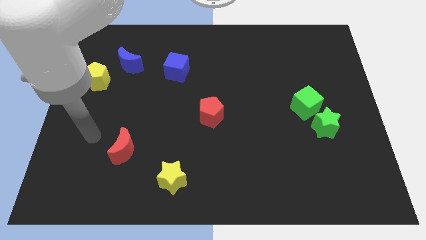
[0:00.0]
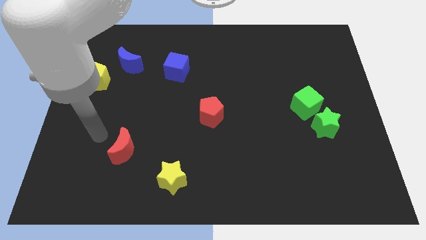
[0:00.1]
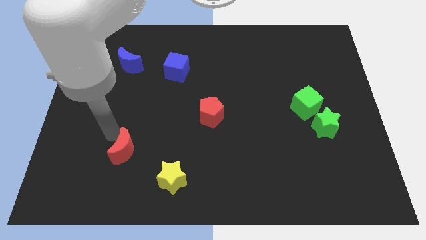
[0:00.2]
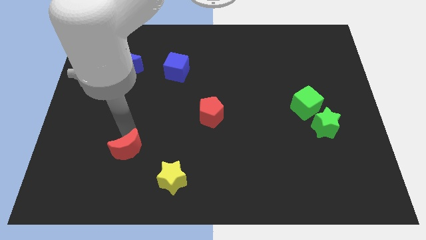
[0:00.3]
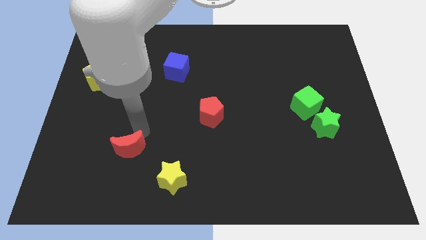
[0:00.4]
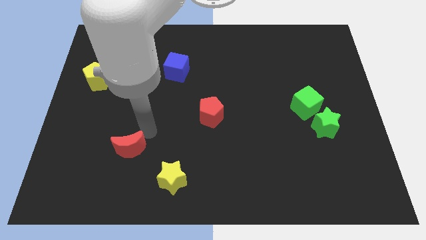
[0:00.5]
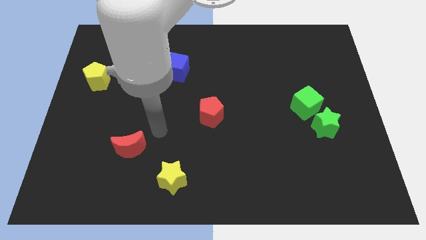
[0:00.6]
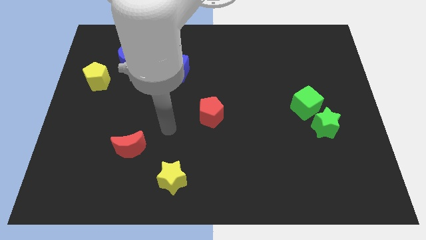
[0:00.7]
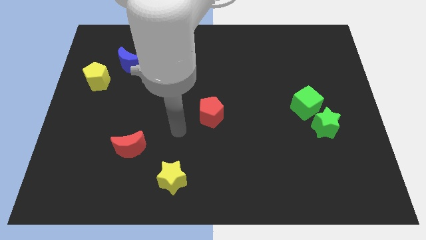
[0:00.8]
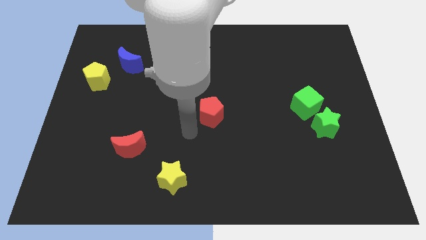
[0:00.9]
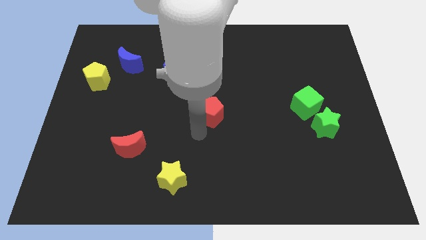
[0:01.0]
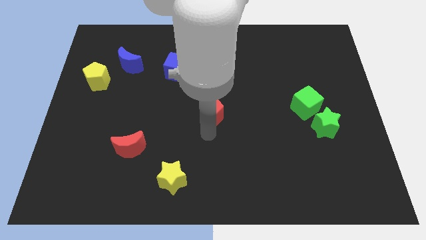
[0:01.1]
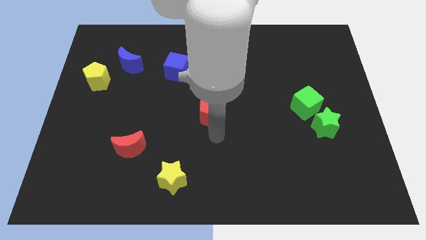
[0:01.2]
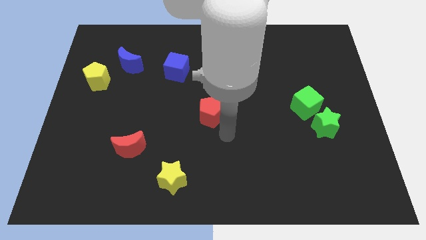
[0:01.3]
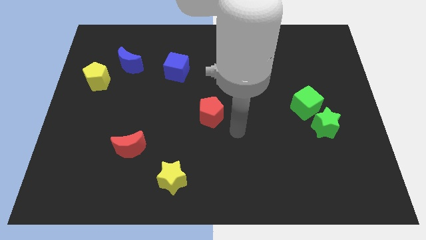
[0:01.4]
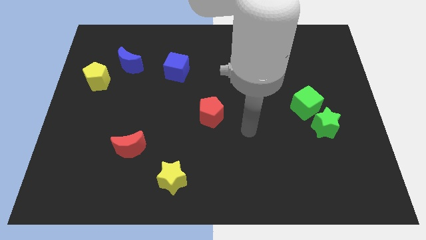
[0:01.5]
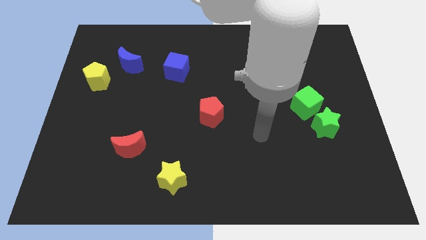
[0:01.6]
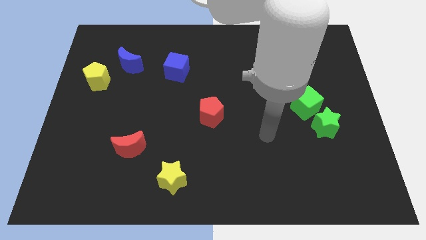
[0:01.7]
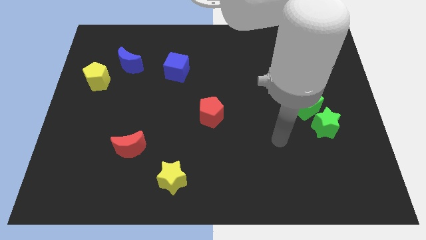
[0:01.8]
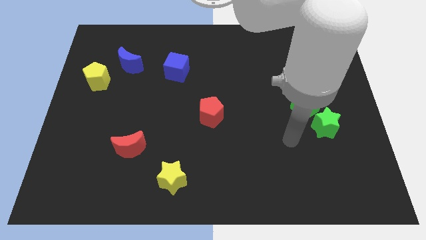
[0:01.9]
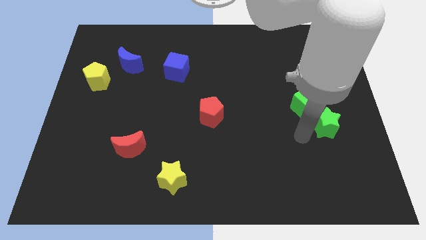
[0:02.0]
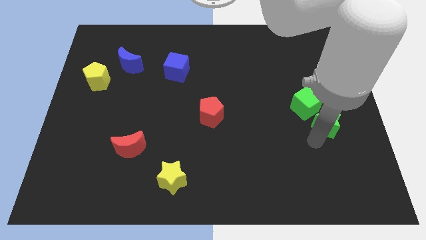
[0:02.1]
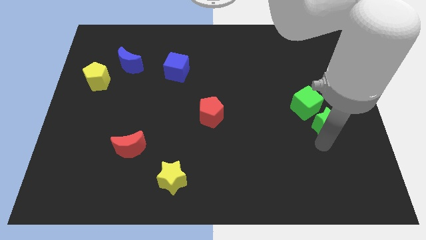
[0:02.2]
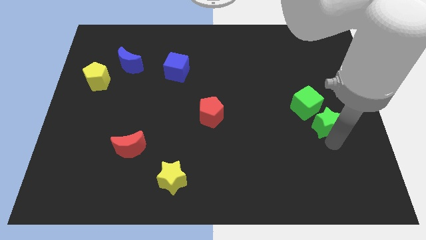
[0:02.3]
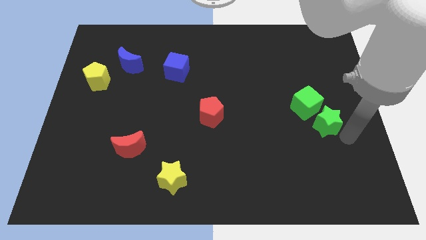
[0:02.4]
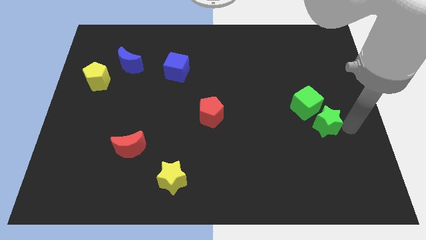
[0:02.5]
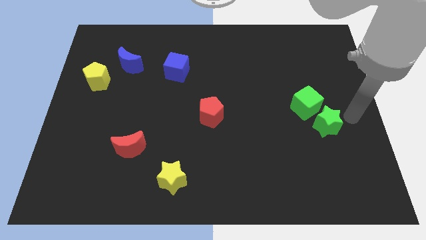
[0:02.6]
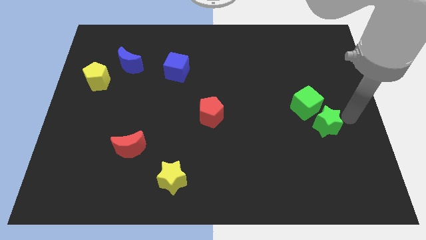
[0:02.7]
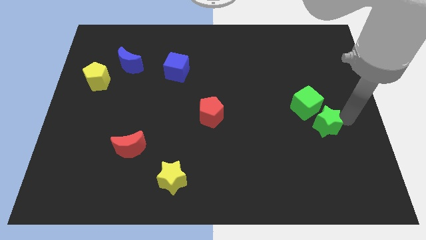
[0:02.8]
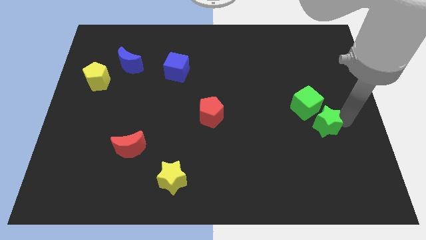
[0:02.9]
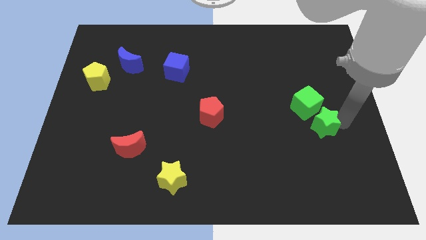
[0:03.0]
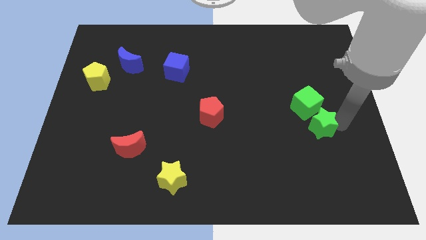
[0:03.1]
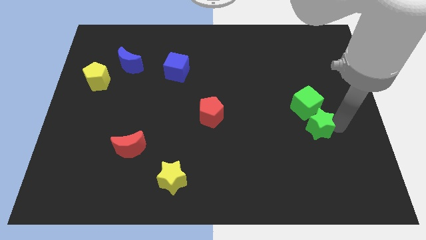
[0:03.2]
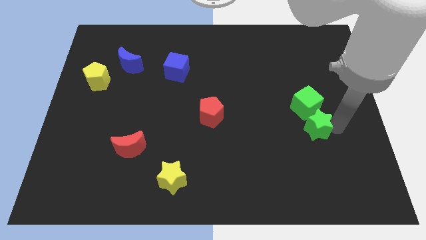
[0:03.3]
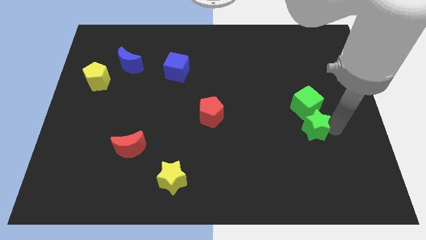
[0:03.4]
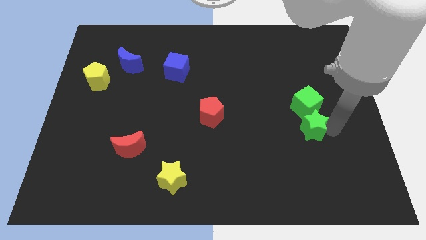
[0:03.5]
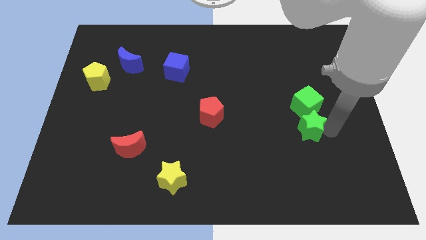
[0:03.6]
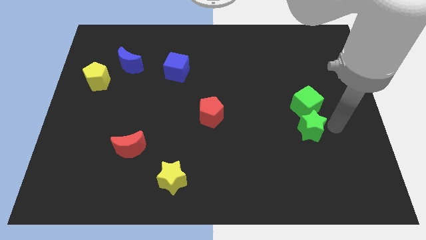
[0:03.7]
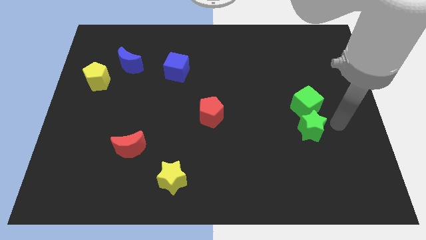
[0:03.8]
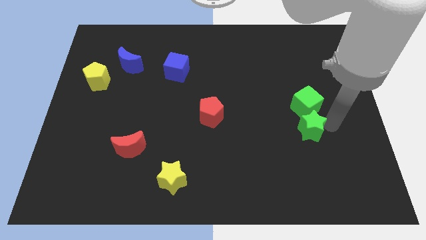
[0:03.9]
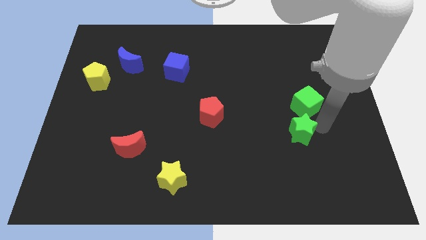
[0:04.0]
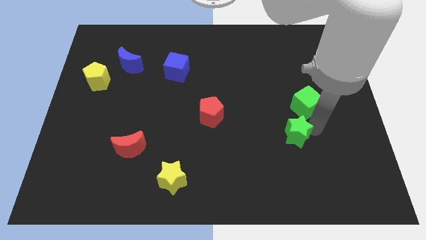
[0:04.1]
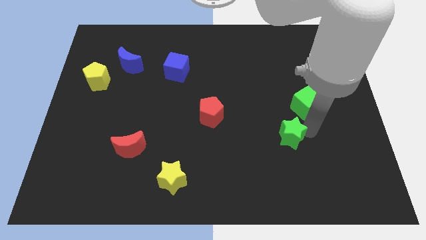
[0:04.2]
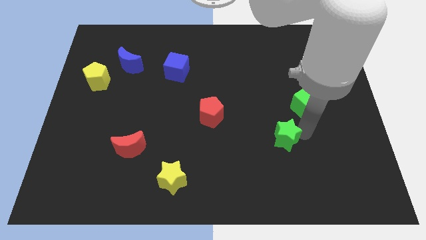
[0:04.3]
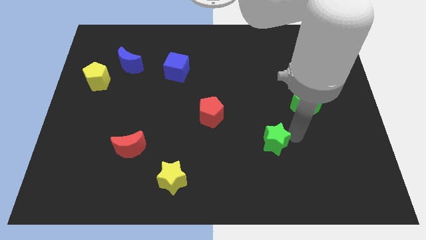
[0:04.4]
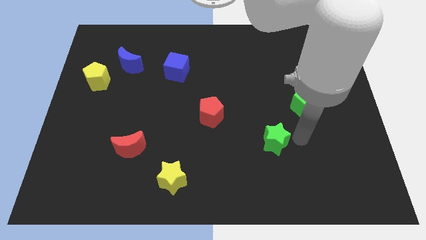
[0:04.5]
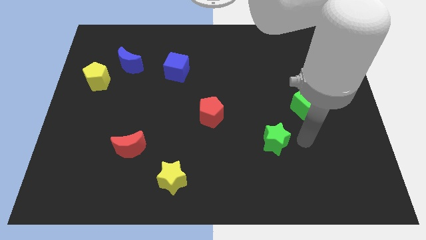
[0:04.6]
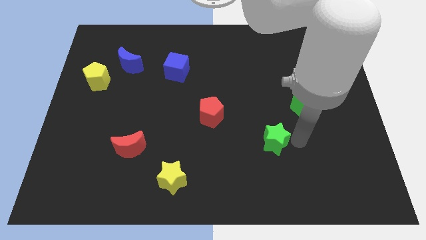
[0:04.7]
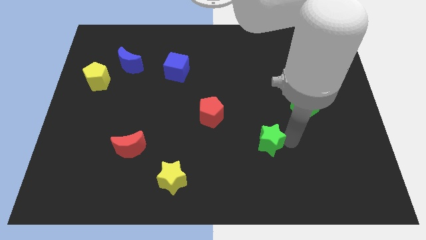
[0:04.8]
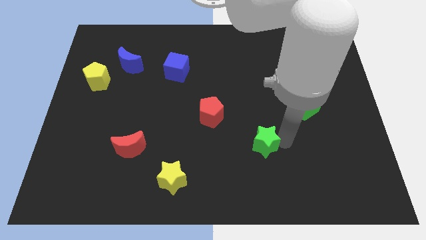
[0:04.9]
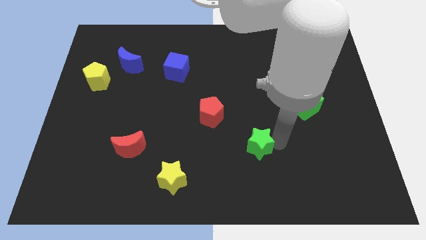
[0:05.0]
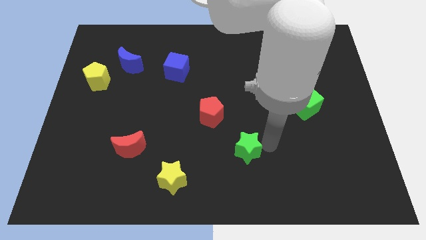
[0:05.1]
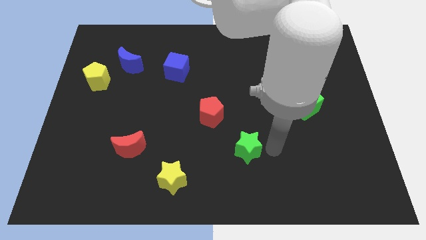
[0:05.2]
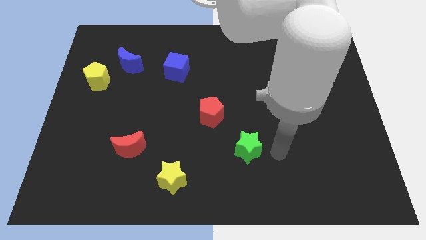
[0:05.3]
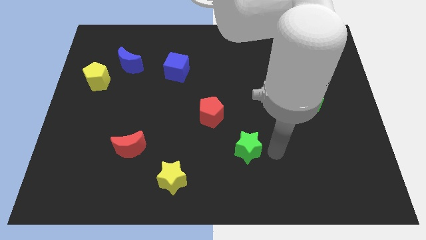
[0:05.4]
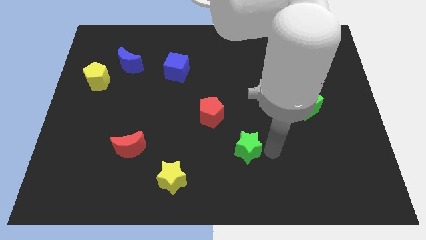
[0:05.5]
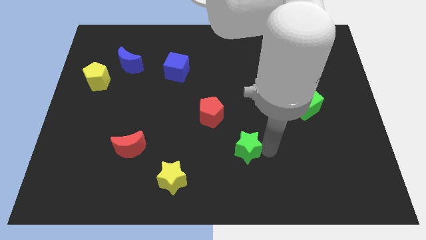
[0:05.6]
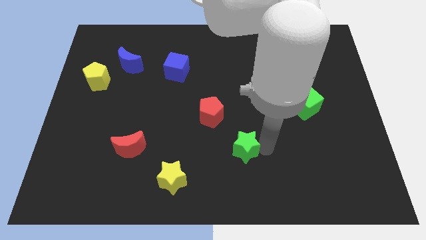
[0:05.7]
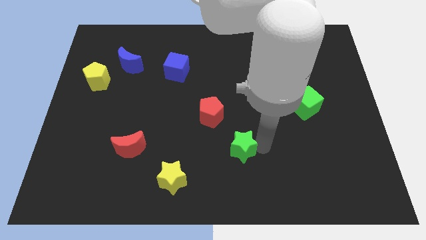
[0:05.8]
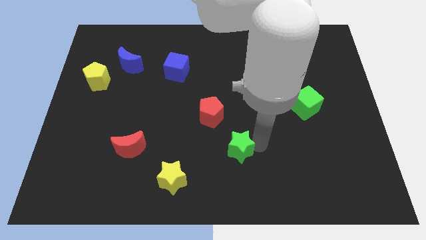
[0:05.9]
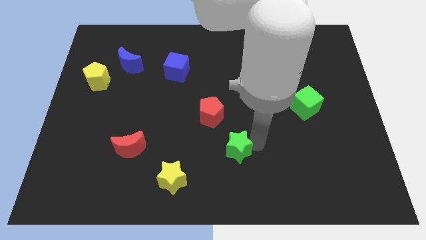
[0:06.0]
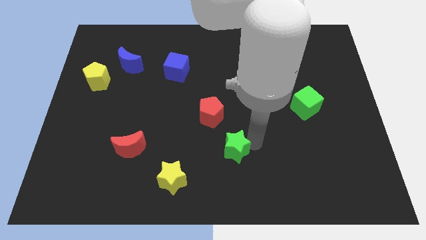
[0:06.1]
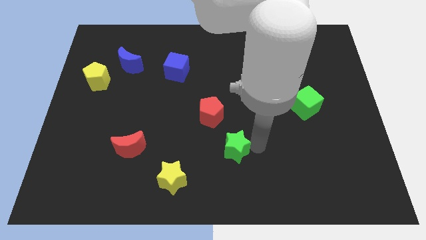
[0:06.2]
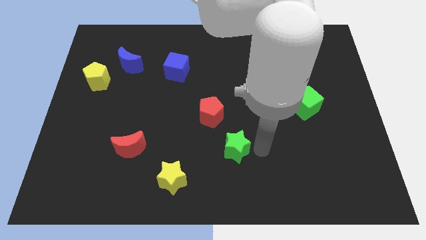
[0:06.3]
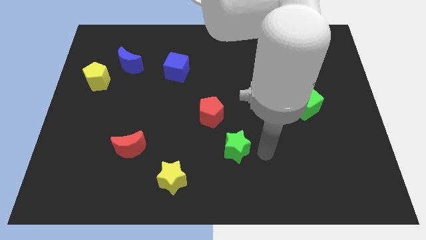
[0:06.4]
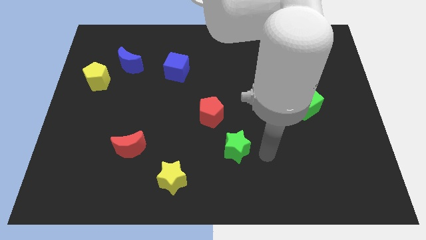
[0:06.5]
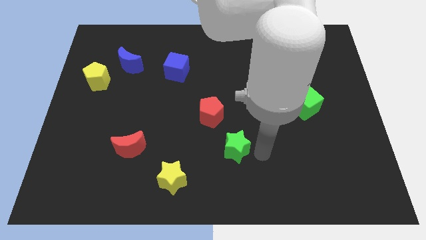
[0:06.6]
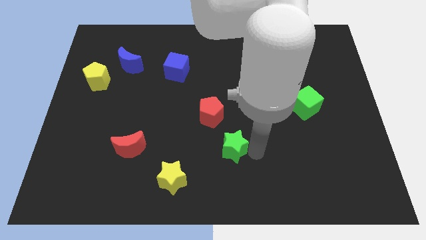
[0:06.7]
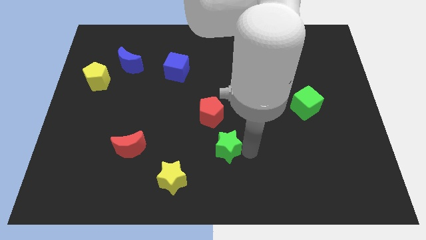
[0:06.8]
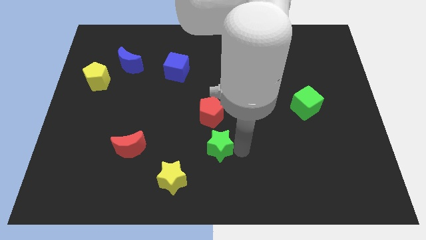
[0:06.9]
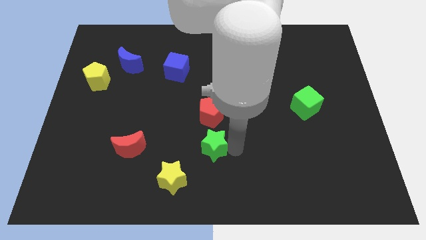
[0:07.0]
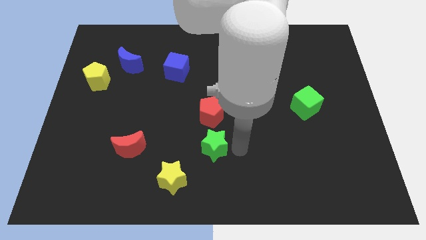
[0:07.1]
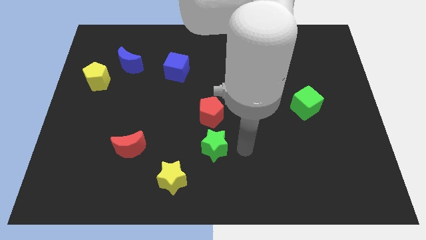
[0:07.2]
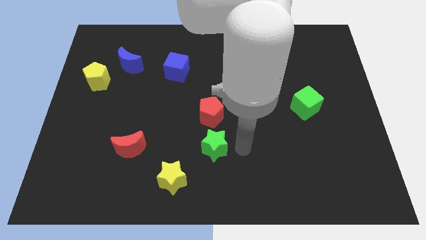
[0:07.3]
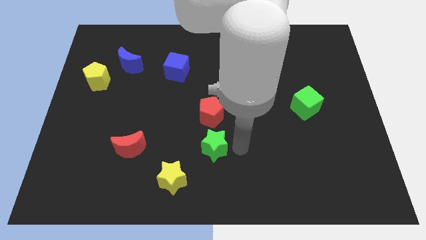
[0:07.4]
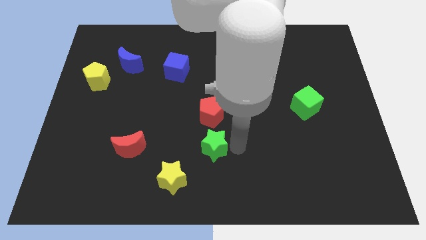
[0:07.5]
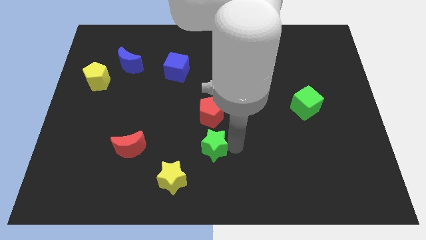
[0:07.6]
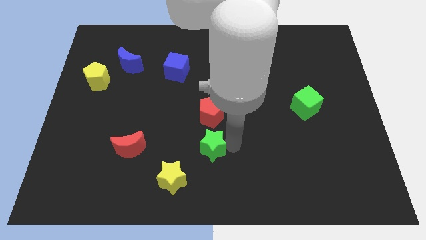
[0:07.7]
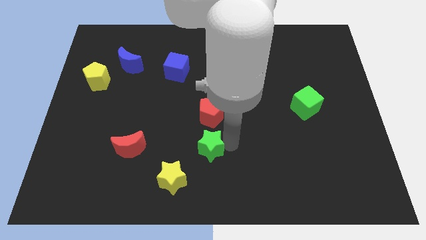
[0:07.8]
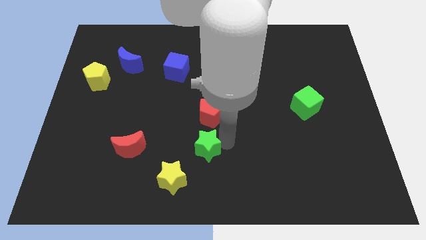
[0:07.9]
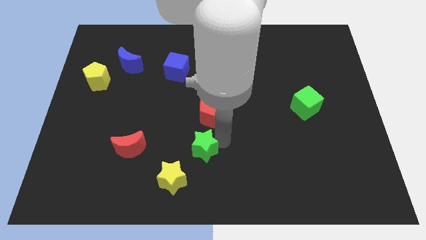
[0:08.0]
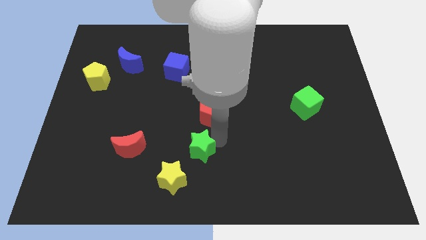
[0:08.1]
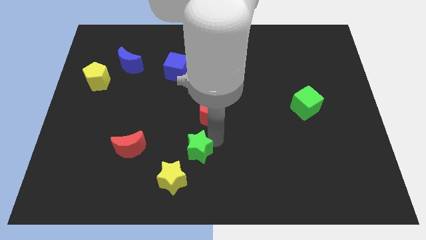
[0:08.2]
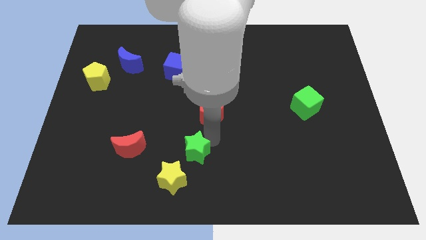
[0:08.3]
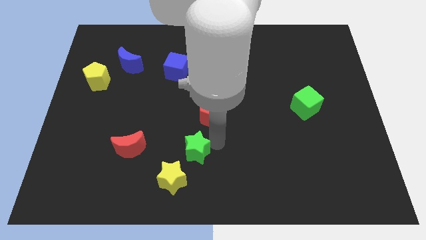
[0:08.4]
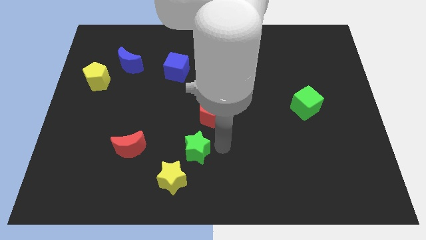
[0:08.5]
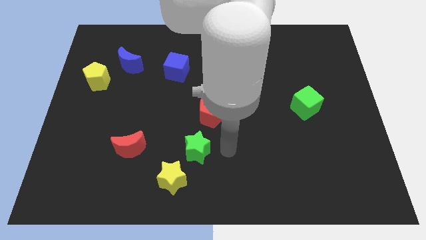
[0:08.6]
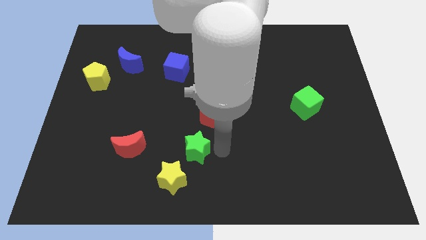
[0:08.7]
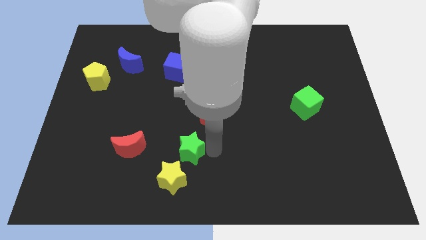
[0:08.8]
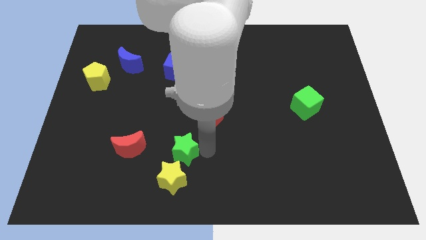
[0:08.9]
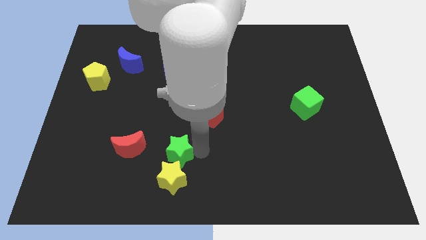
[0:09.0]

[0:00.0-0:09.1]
push the green star to the top left of the yellow star
